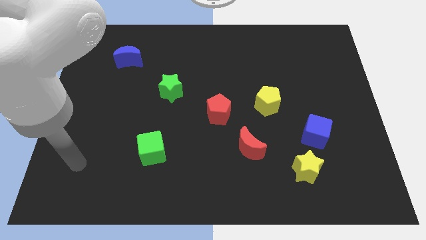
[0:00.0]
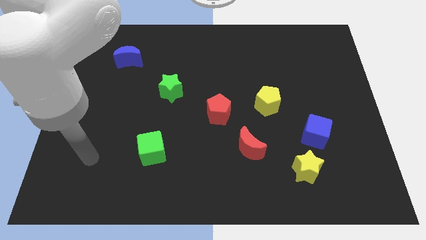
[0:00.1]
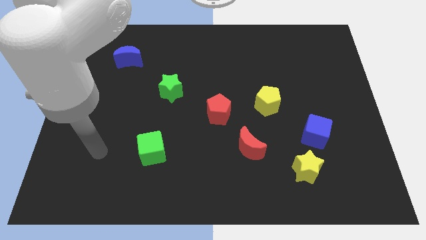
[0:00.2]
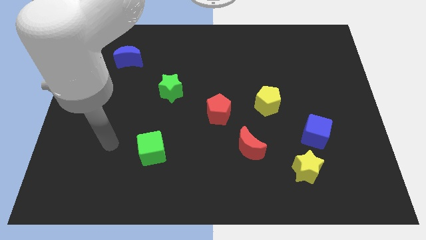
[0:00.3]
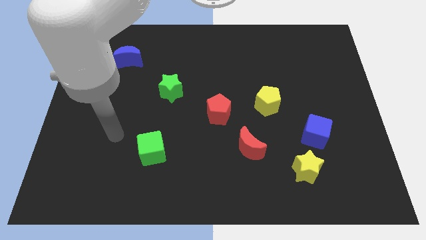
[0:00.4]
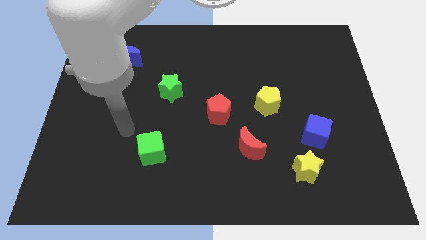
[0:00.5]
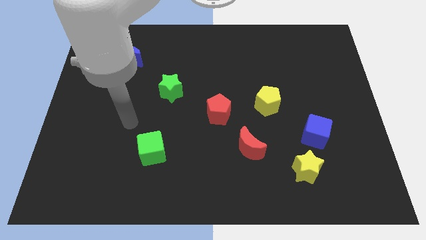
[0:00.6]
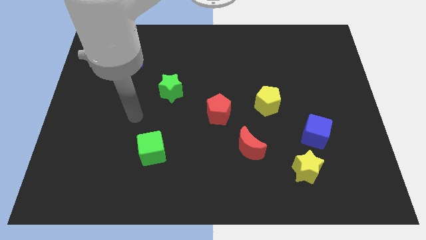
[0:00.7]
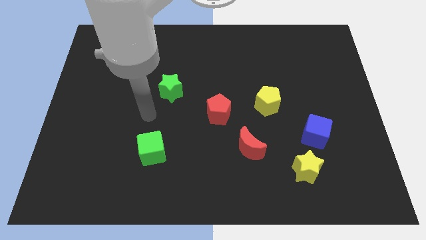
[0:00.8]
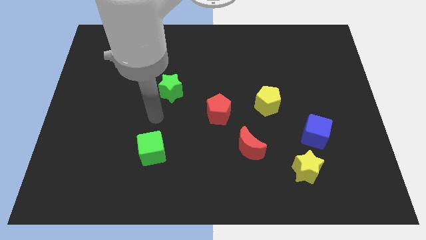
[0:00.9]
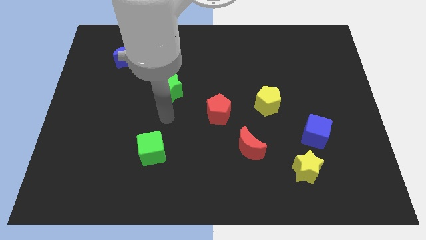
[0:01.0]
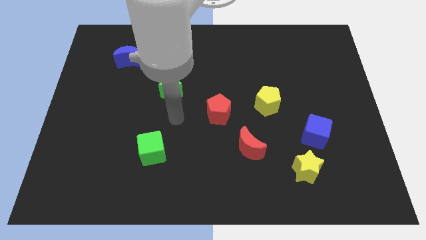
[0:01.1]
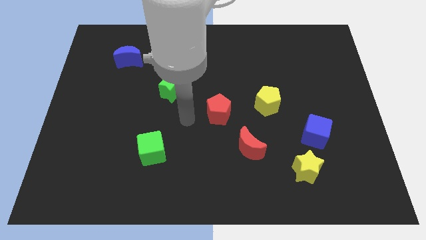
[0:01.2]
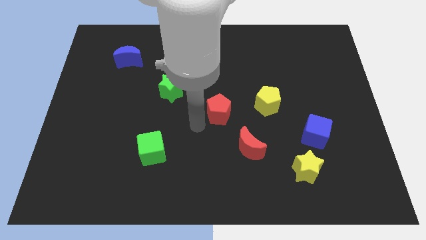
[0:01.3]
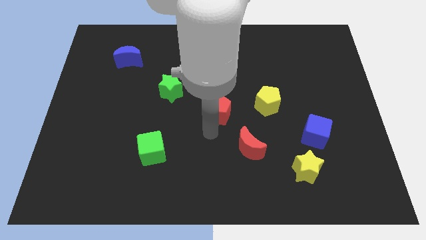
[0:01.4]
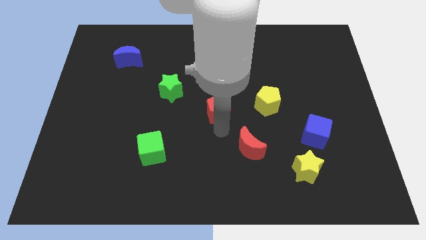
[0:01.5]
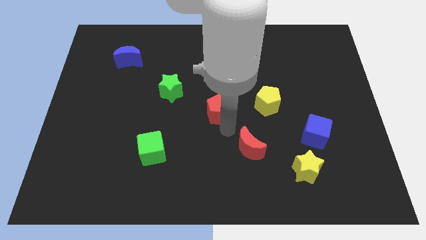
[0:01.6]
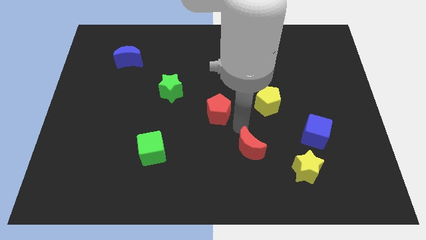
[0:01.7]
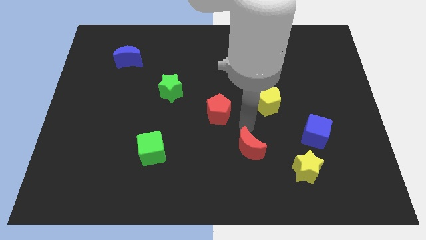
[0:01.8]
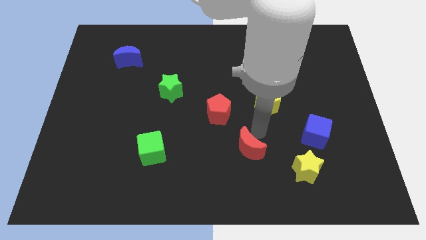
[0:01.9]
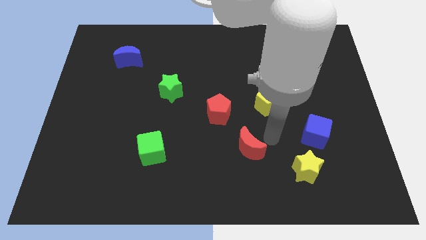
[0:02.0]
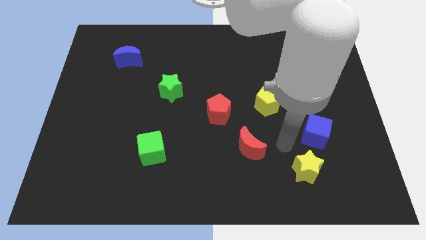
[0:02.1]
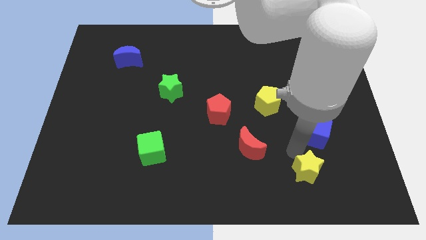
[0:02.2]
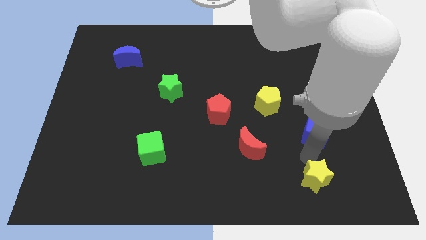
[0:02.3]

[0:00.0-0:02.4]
separate the blue cube from the yellow star

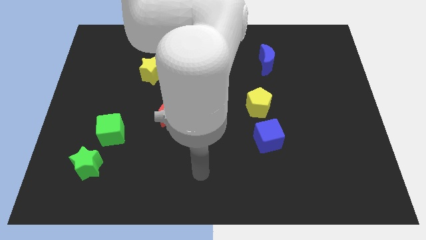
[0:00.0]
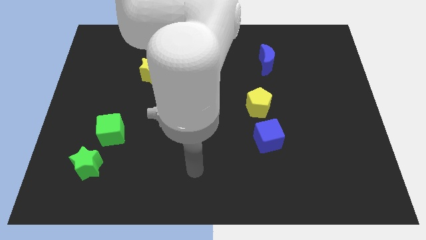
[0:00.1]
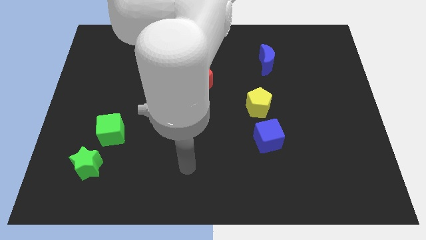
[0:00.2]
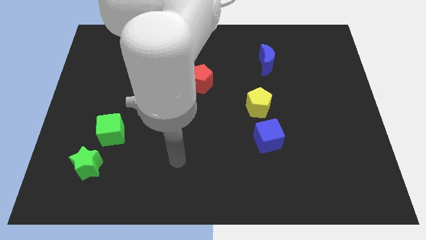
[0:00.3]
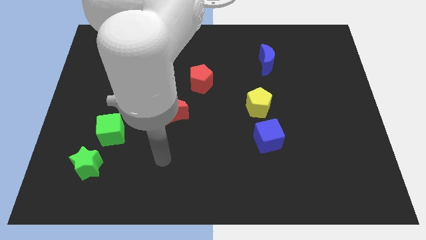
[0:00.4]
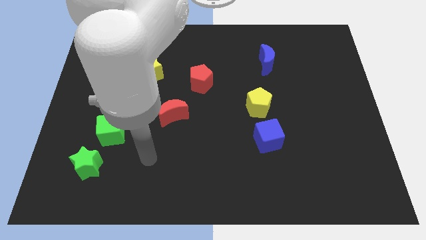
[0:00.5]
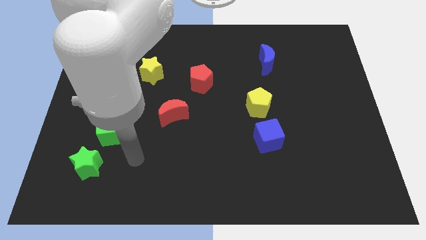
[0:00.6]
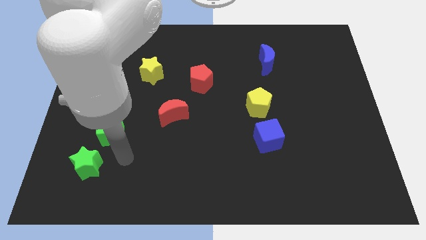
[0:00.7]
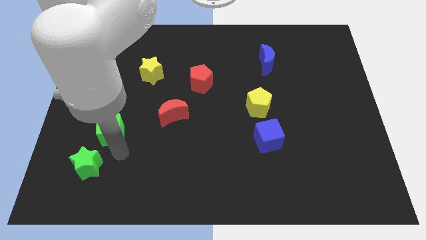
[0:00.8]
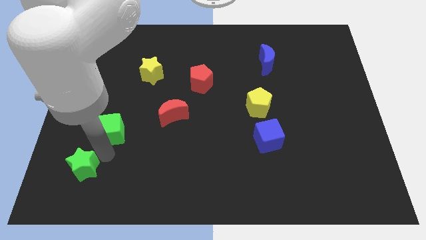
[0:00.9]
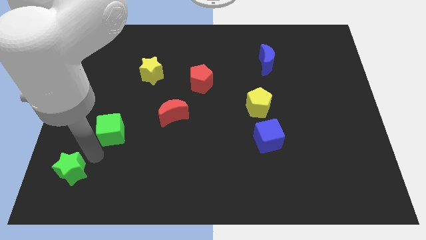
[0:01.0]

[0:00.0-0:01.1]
pull the green cube apart from the green star

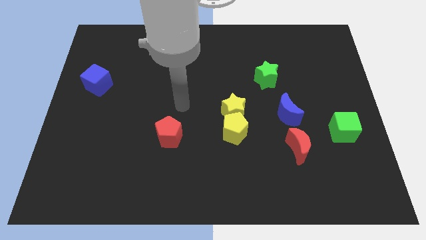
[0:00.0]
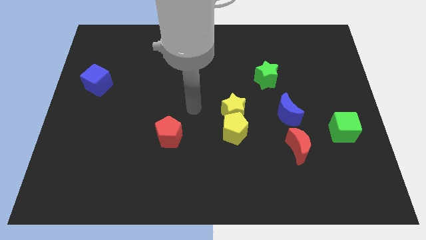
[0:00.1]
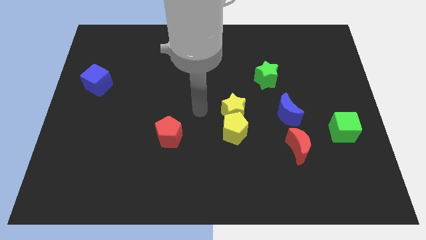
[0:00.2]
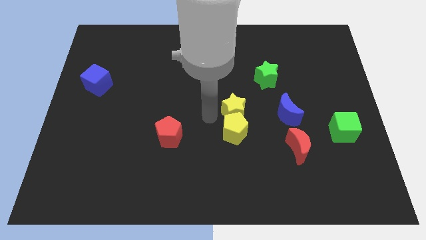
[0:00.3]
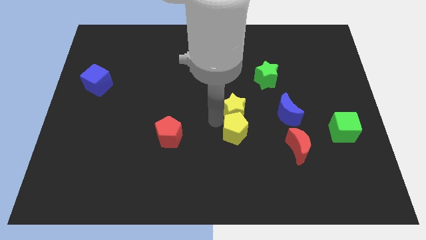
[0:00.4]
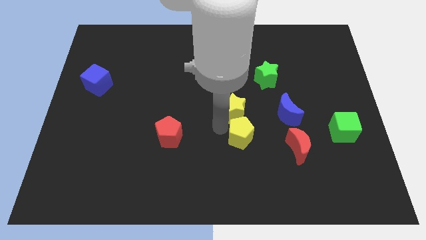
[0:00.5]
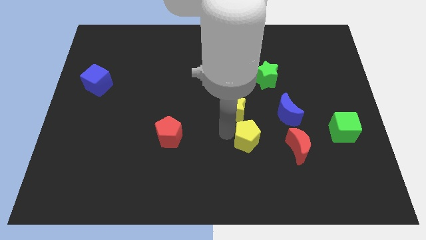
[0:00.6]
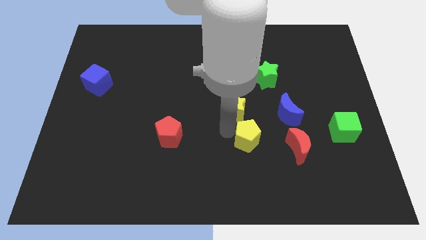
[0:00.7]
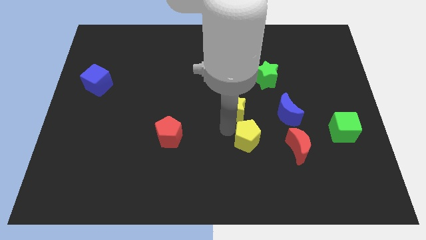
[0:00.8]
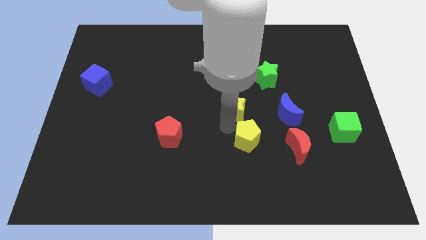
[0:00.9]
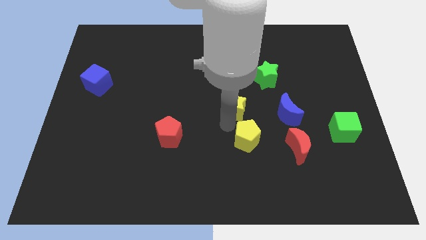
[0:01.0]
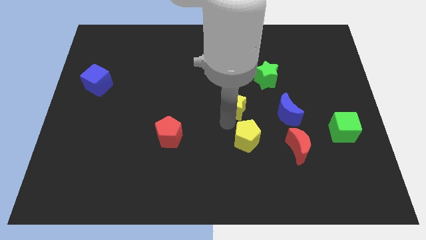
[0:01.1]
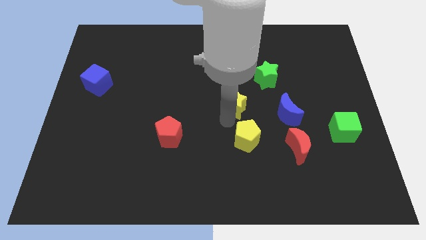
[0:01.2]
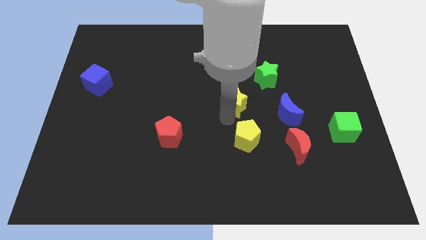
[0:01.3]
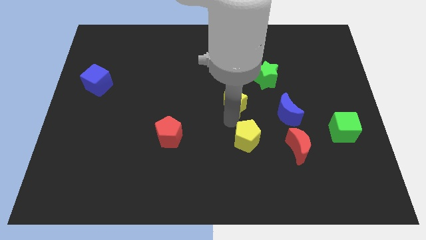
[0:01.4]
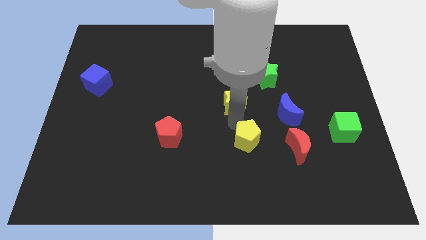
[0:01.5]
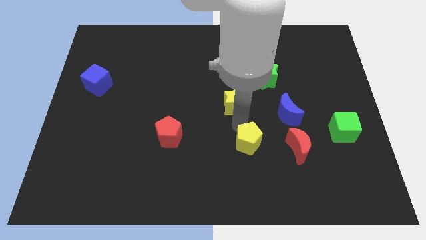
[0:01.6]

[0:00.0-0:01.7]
pull the yellow star apart from the yellow pentagon

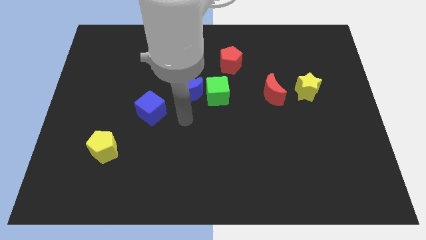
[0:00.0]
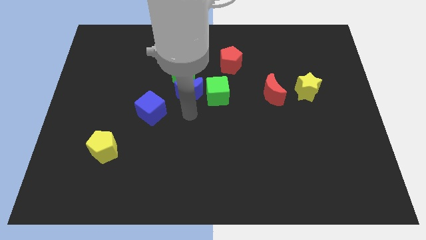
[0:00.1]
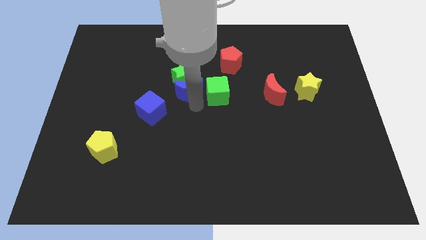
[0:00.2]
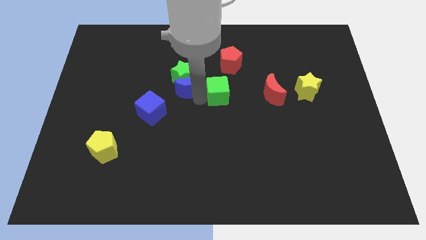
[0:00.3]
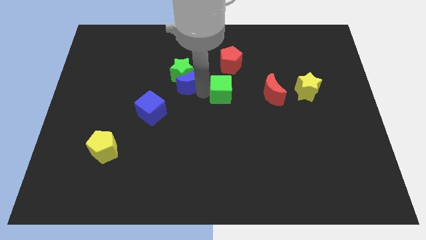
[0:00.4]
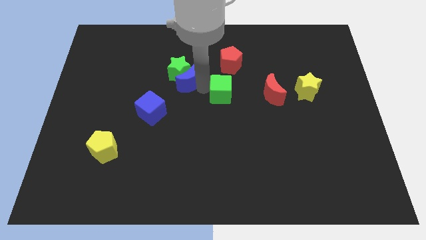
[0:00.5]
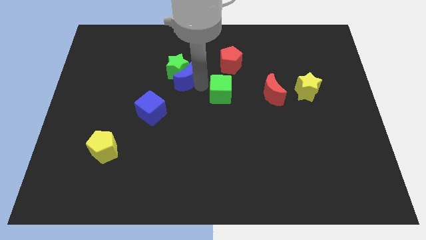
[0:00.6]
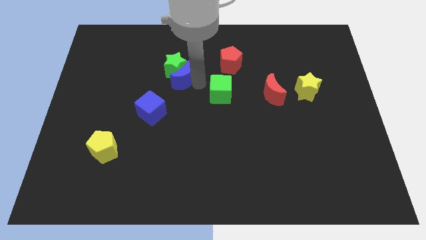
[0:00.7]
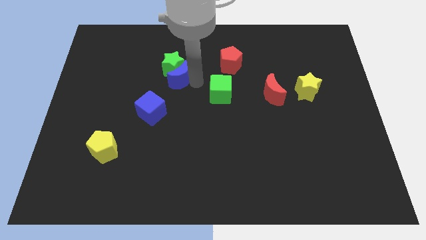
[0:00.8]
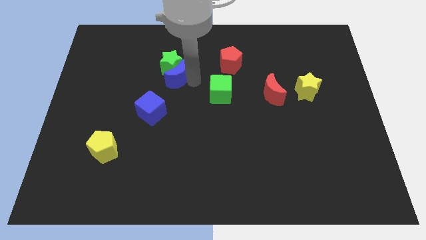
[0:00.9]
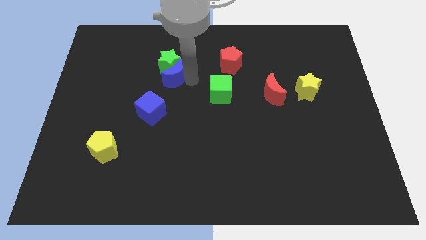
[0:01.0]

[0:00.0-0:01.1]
pull the green star apart from the blue moon and green cube

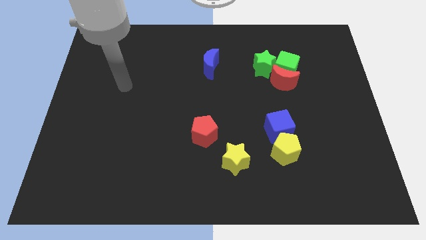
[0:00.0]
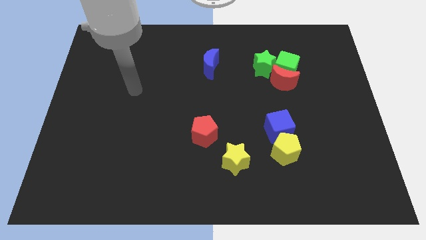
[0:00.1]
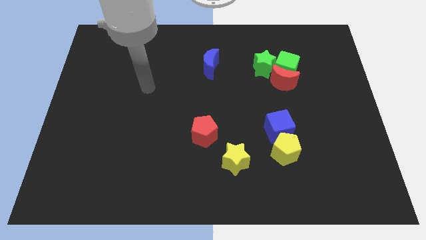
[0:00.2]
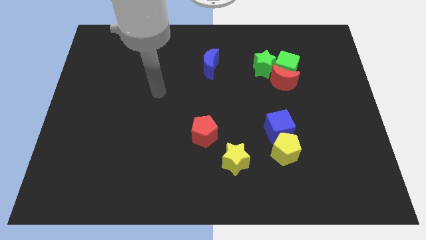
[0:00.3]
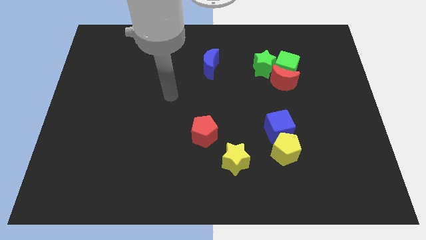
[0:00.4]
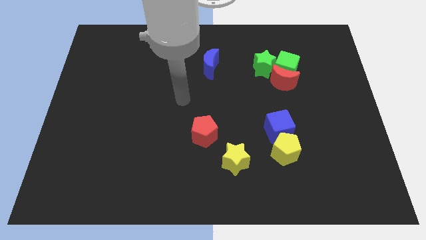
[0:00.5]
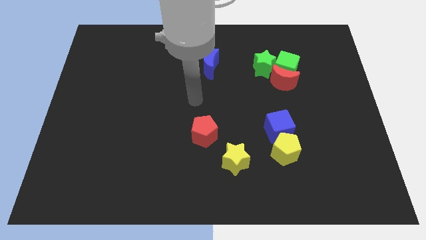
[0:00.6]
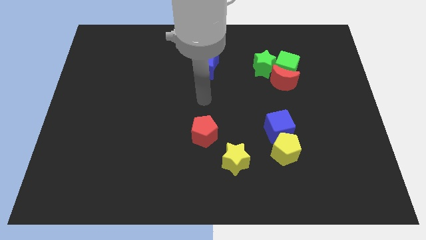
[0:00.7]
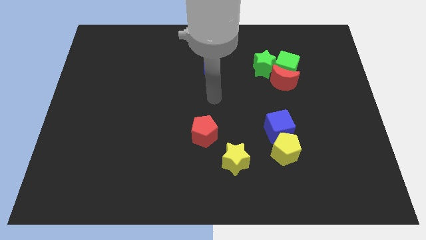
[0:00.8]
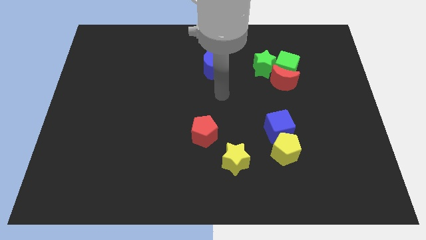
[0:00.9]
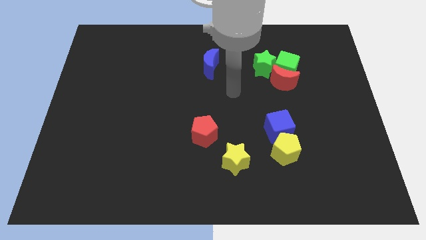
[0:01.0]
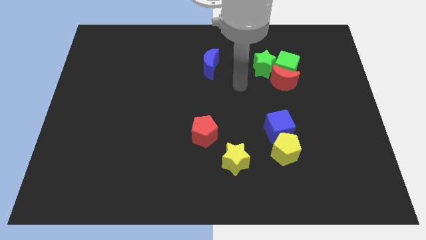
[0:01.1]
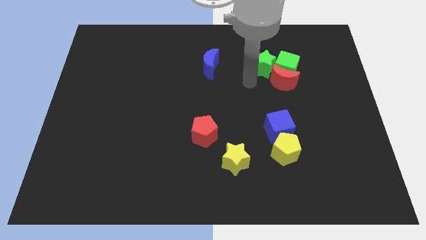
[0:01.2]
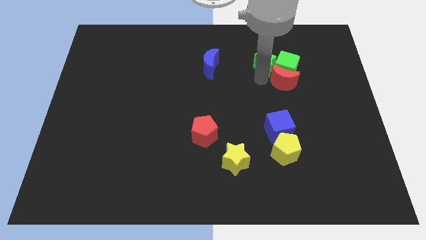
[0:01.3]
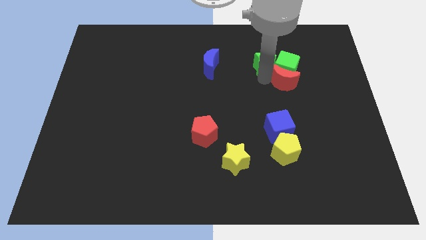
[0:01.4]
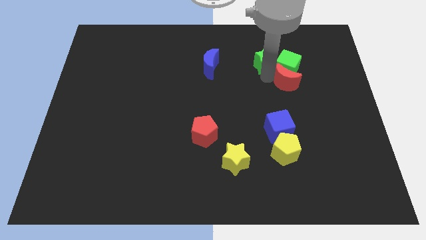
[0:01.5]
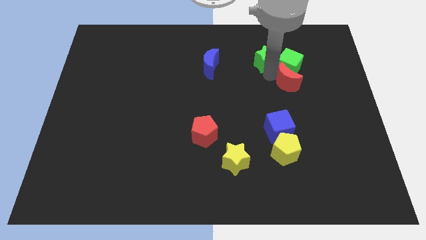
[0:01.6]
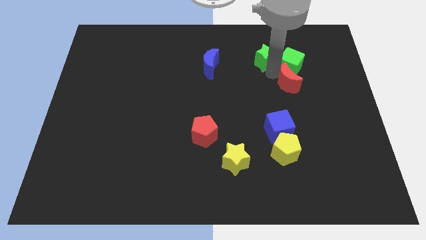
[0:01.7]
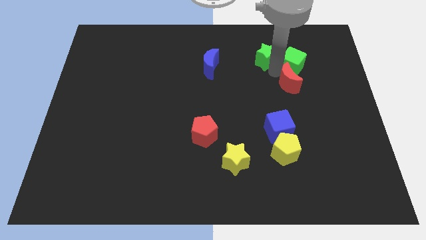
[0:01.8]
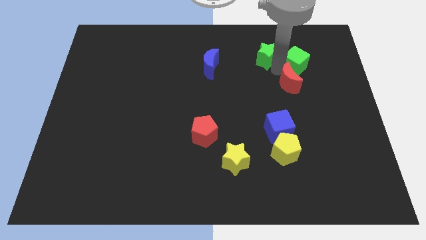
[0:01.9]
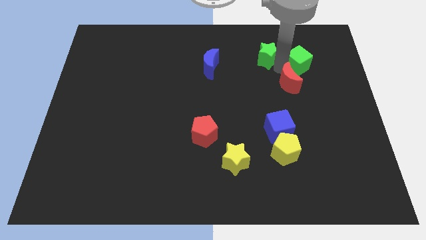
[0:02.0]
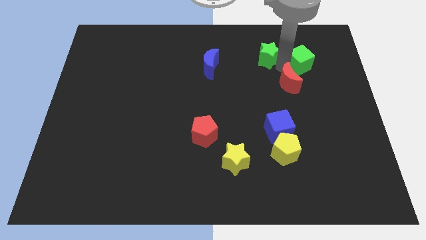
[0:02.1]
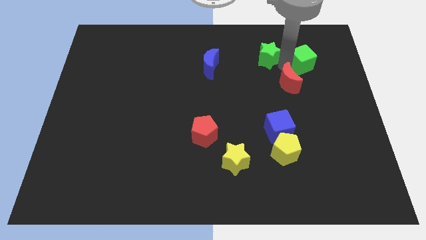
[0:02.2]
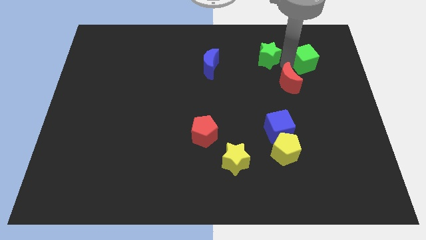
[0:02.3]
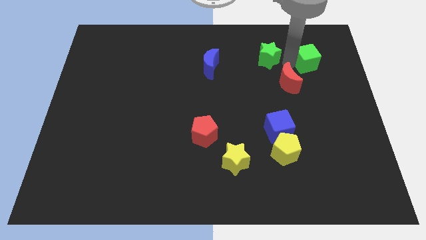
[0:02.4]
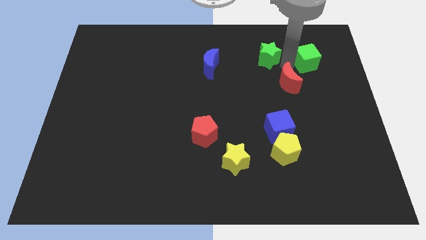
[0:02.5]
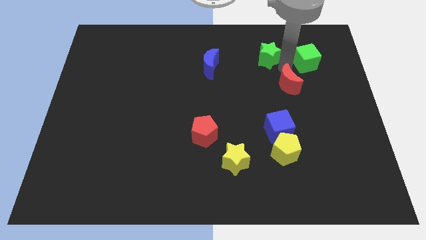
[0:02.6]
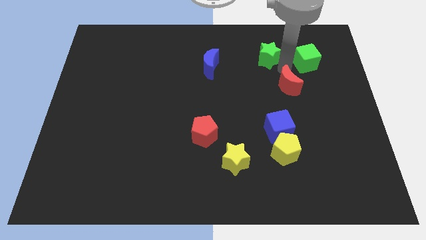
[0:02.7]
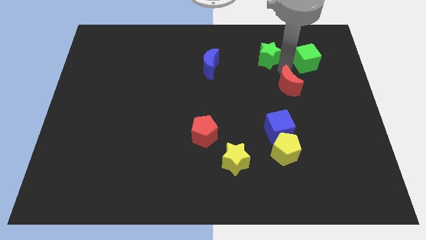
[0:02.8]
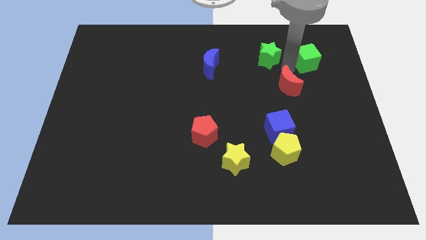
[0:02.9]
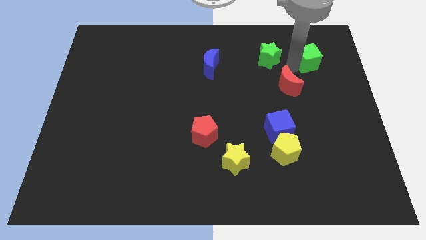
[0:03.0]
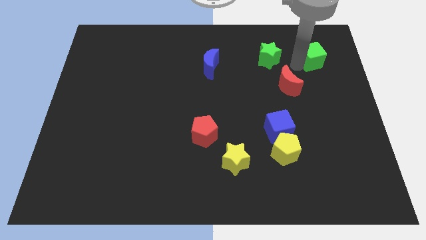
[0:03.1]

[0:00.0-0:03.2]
pull the green cube apart from the red moon and green star

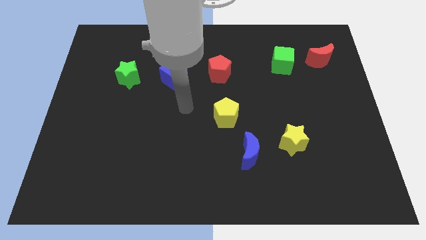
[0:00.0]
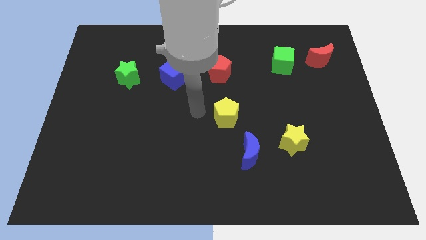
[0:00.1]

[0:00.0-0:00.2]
pull the blue moon apart from the yellow star
